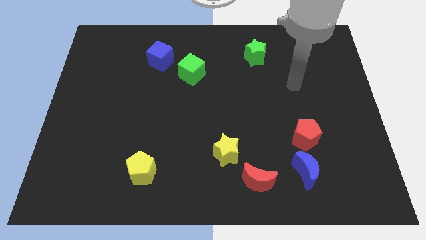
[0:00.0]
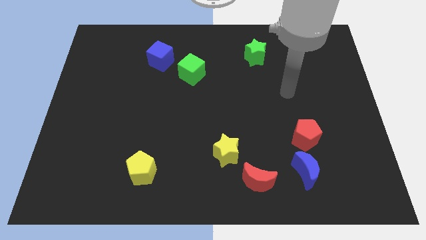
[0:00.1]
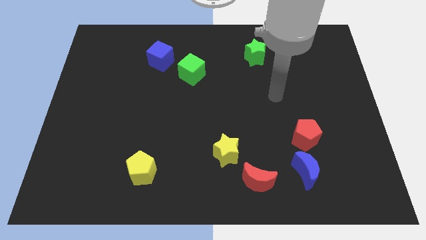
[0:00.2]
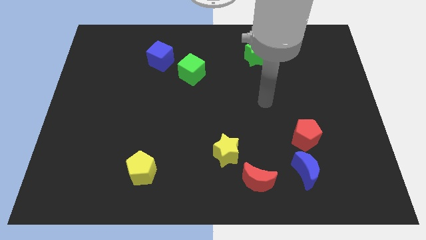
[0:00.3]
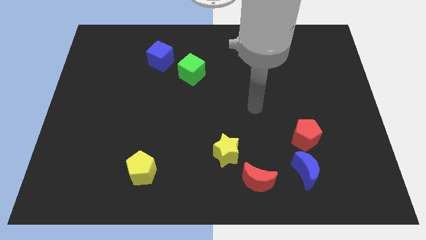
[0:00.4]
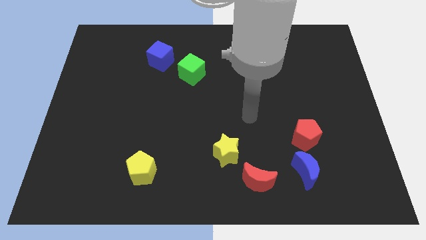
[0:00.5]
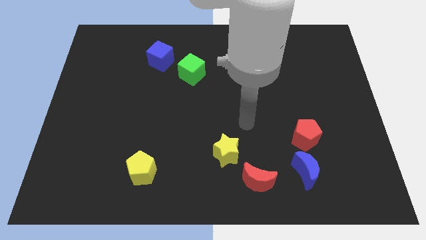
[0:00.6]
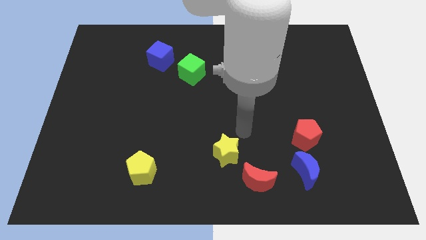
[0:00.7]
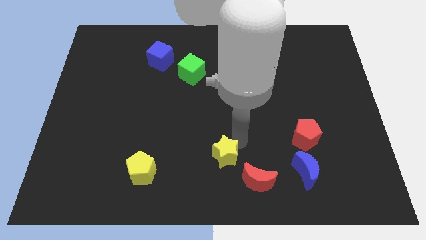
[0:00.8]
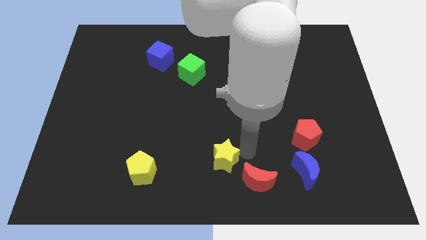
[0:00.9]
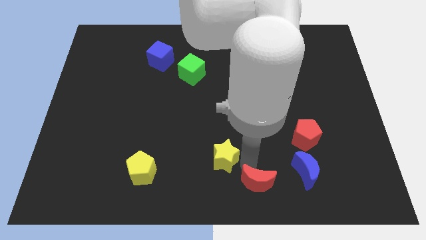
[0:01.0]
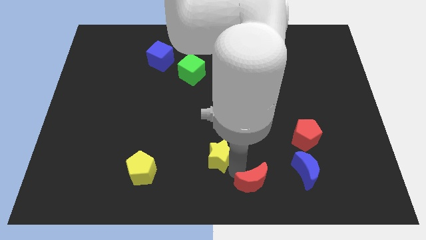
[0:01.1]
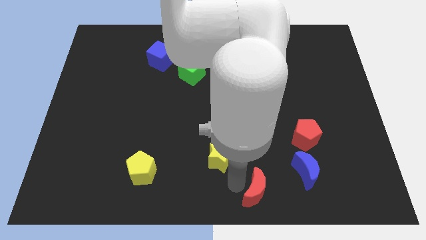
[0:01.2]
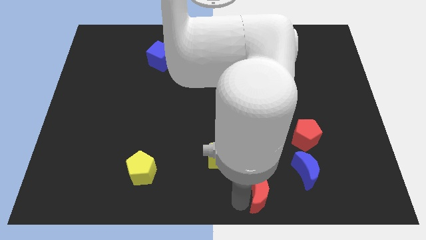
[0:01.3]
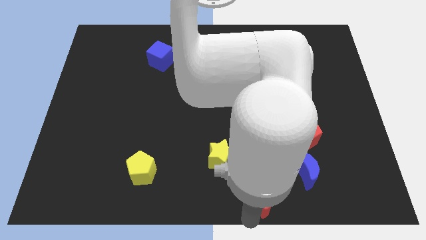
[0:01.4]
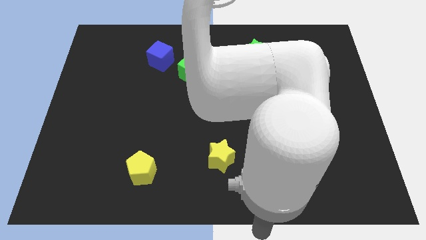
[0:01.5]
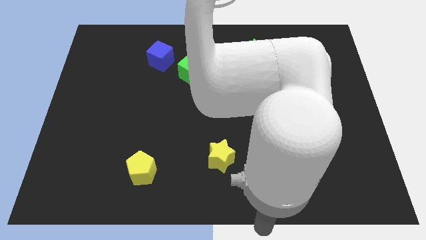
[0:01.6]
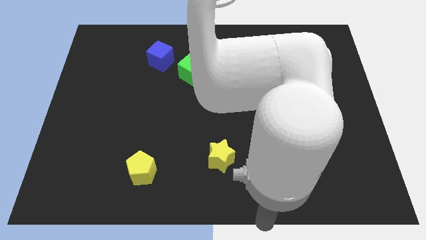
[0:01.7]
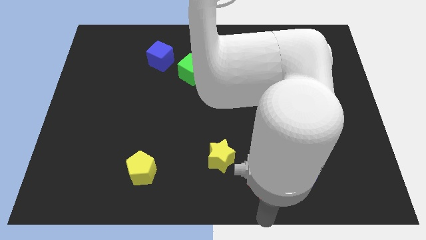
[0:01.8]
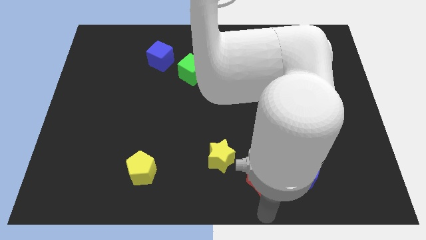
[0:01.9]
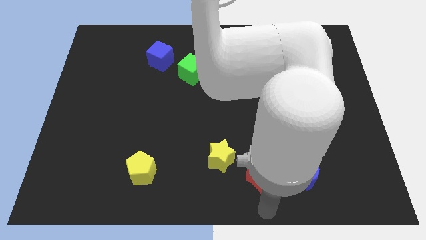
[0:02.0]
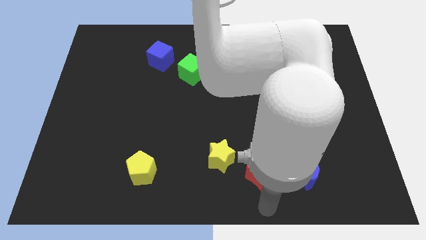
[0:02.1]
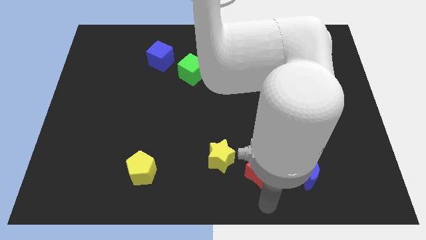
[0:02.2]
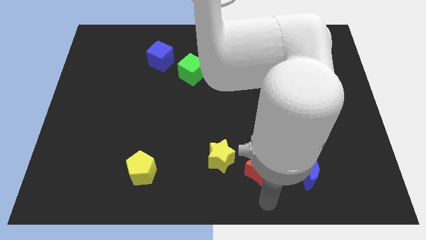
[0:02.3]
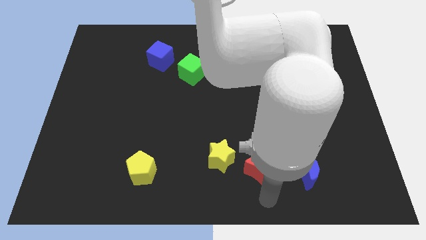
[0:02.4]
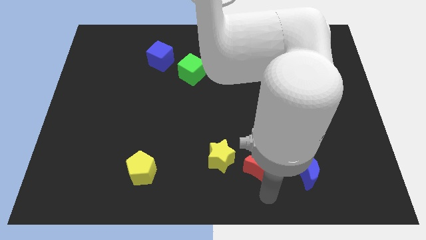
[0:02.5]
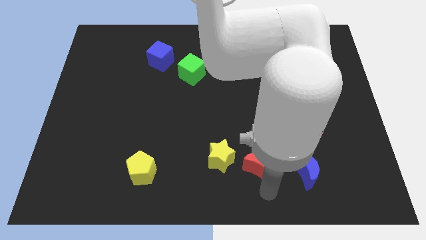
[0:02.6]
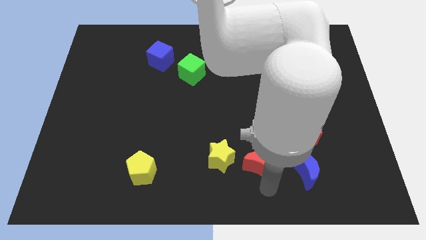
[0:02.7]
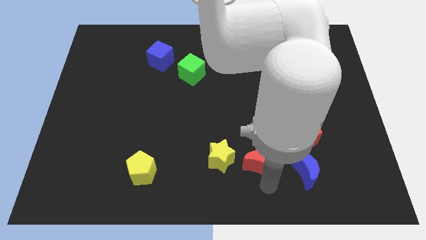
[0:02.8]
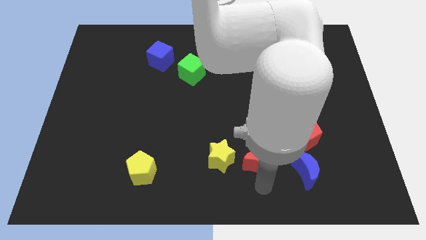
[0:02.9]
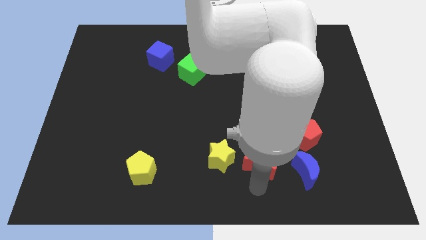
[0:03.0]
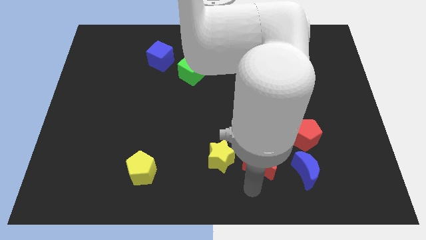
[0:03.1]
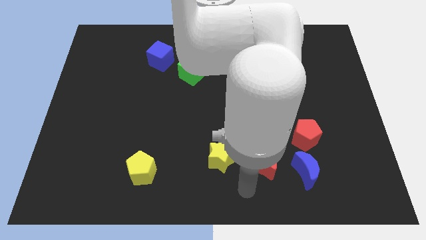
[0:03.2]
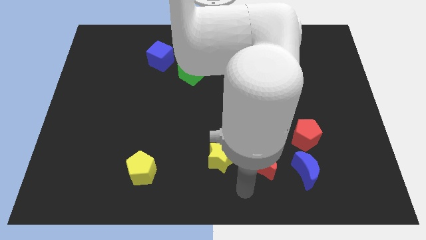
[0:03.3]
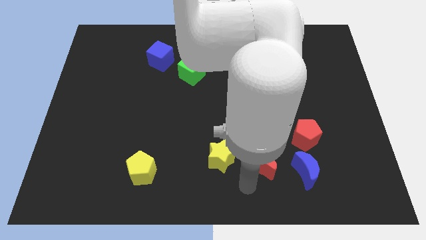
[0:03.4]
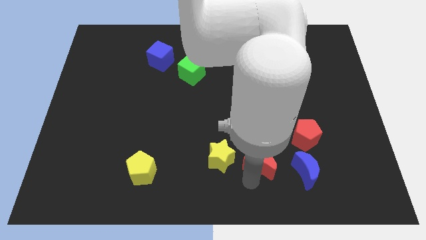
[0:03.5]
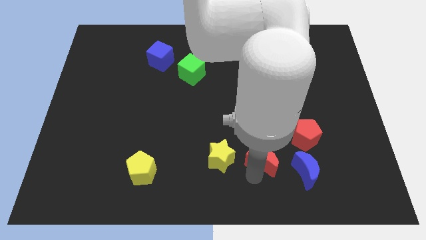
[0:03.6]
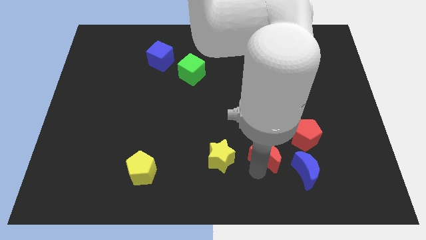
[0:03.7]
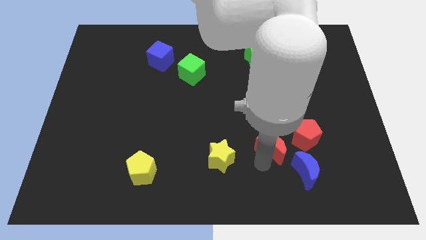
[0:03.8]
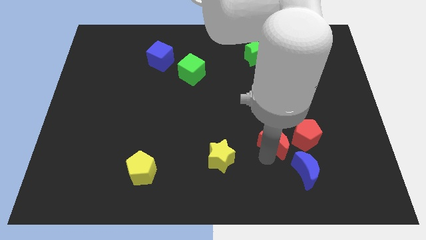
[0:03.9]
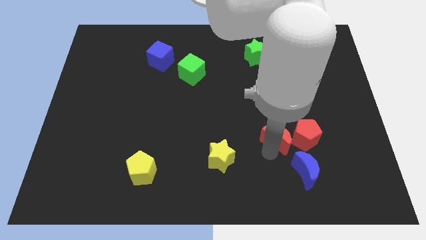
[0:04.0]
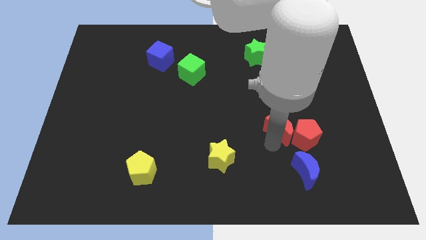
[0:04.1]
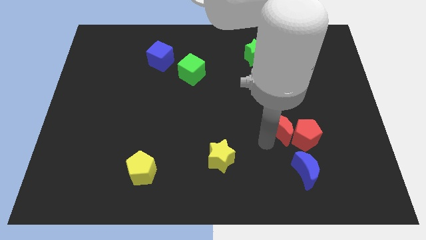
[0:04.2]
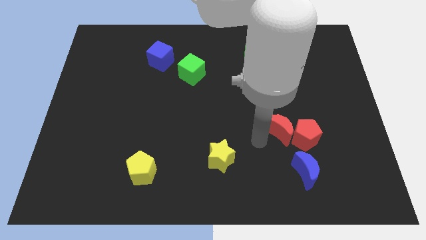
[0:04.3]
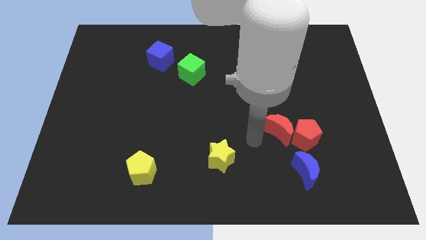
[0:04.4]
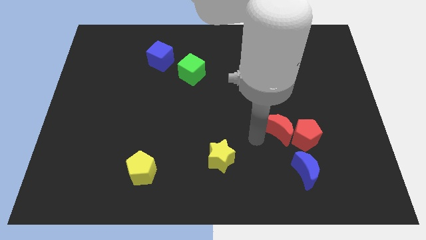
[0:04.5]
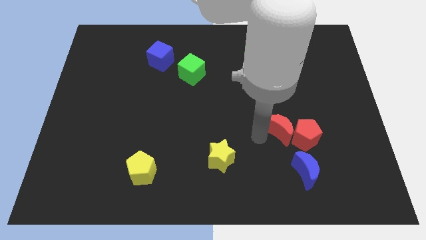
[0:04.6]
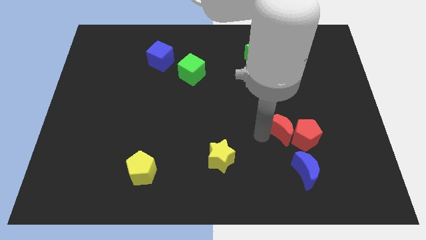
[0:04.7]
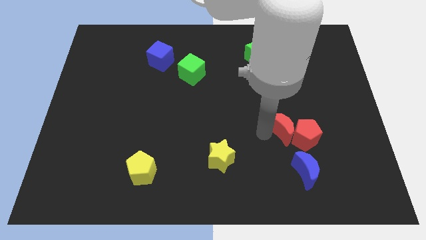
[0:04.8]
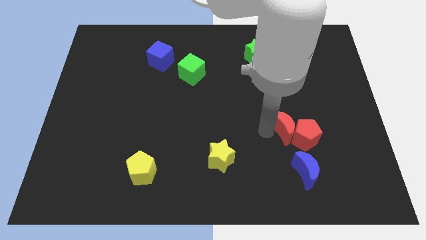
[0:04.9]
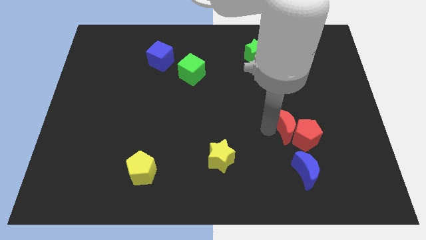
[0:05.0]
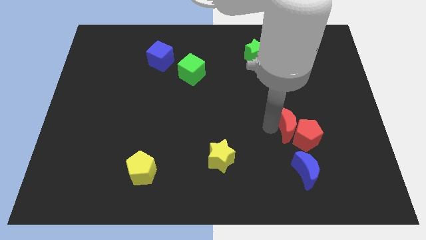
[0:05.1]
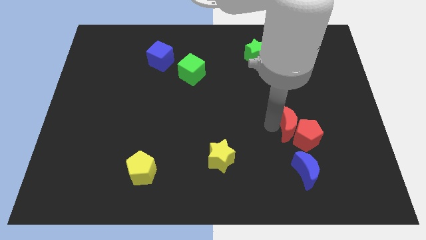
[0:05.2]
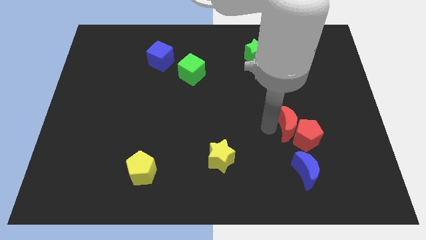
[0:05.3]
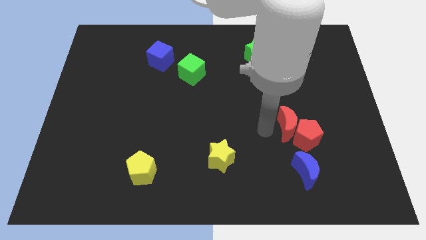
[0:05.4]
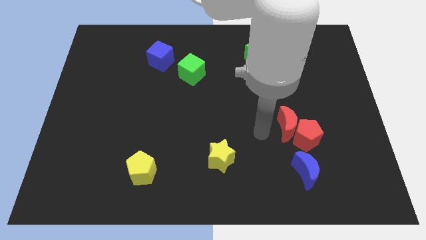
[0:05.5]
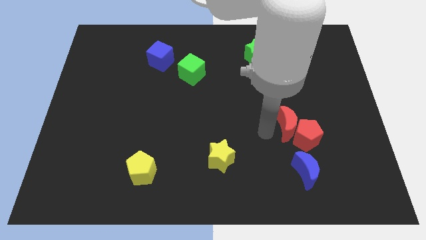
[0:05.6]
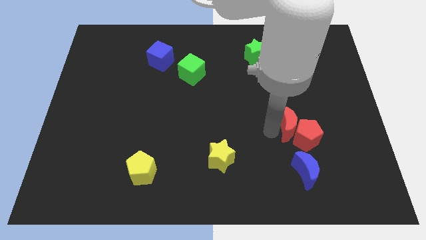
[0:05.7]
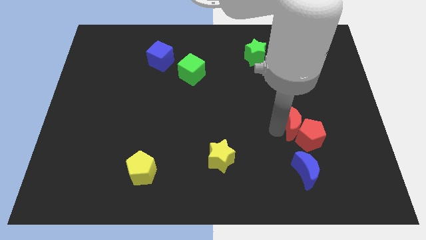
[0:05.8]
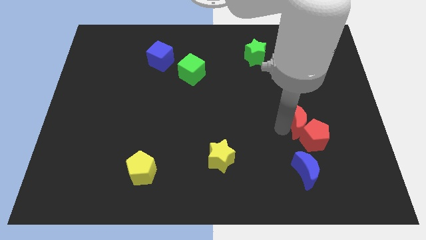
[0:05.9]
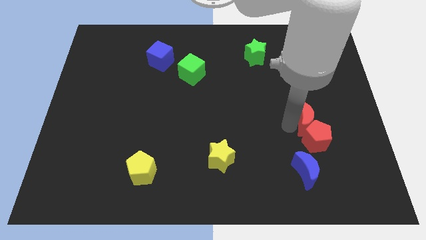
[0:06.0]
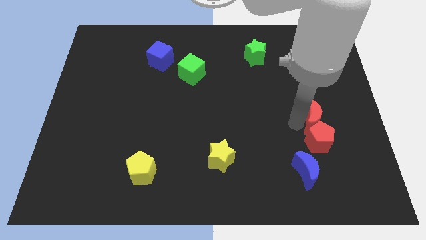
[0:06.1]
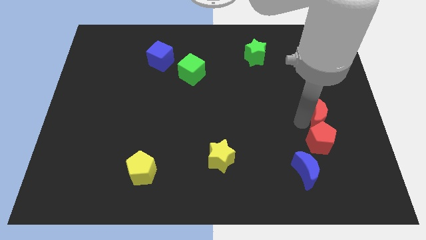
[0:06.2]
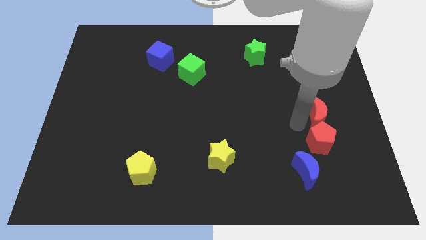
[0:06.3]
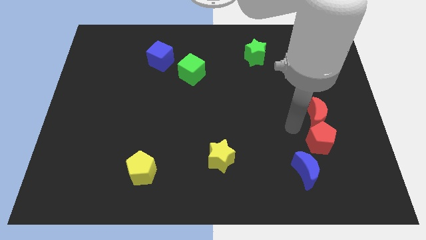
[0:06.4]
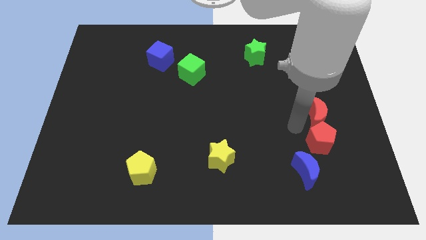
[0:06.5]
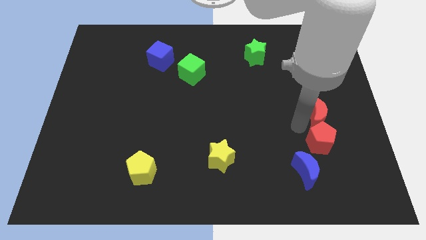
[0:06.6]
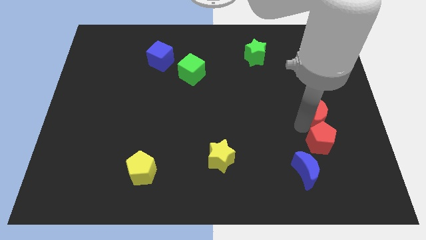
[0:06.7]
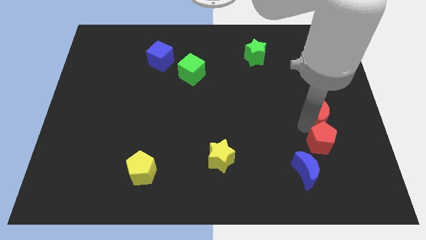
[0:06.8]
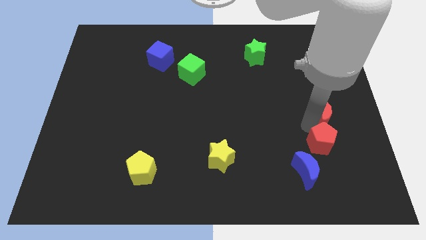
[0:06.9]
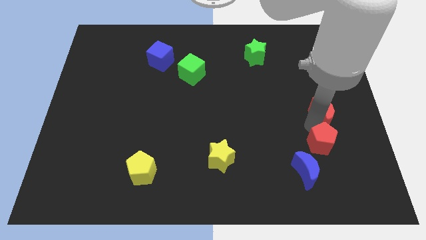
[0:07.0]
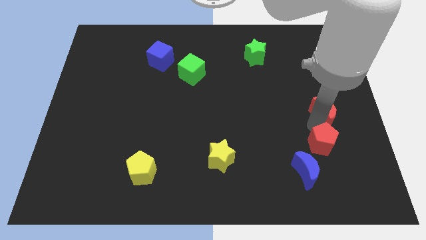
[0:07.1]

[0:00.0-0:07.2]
put the red moon to the right side
